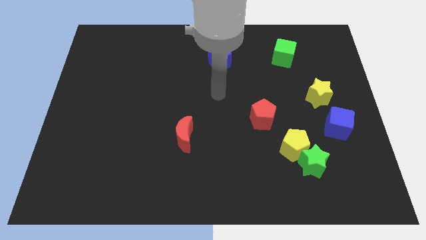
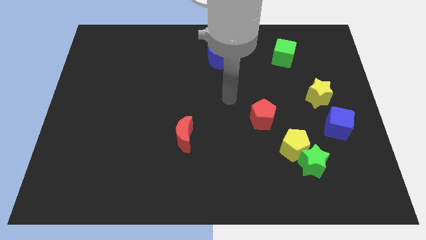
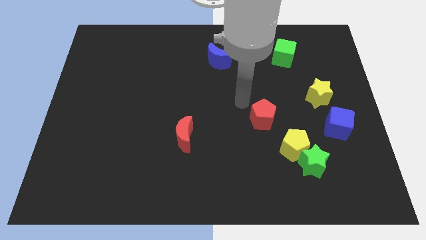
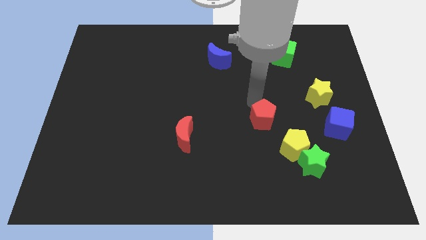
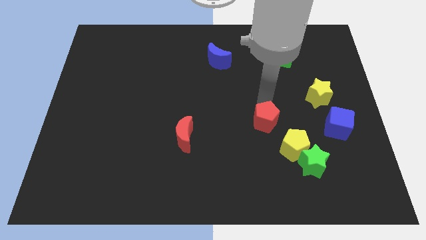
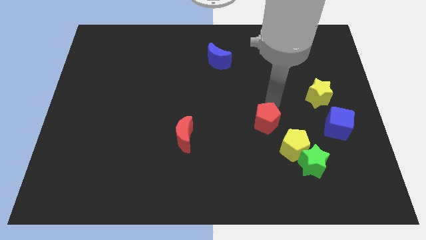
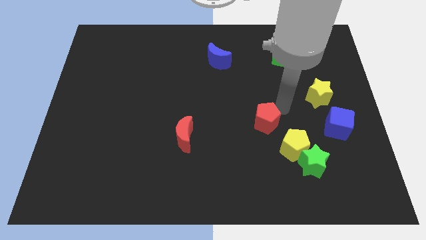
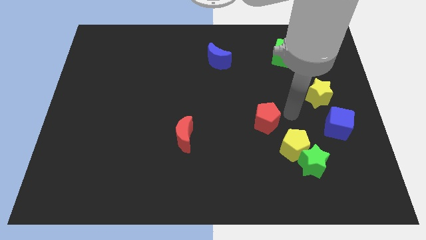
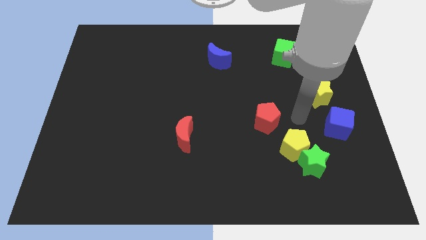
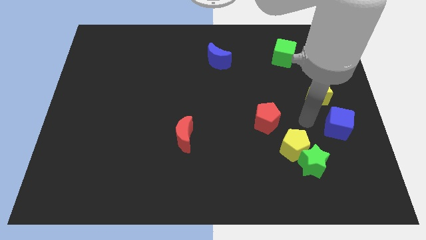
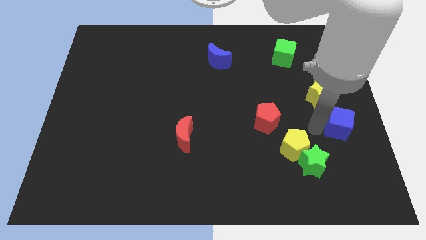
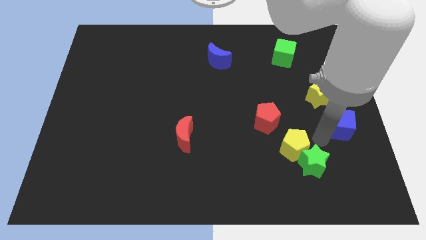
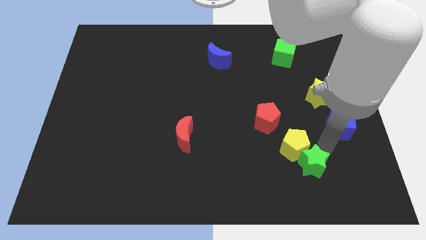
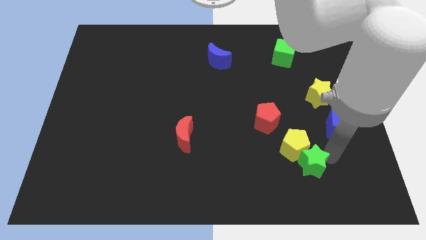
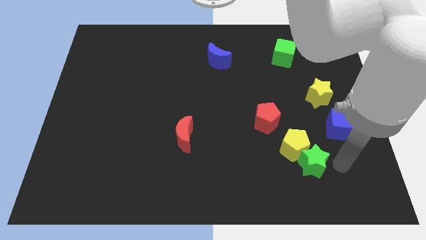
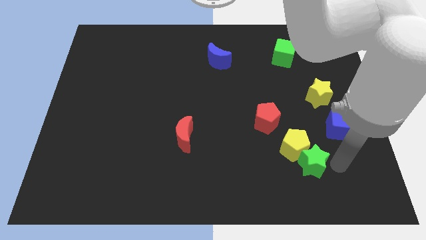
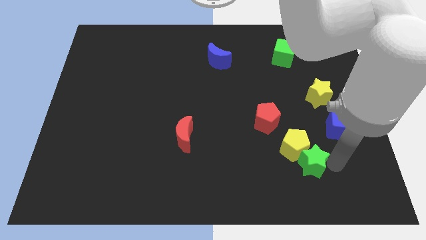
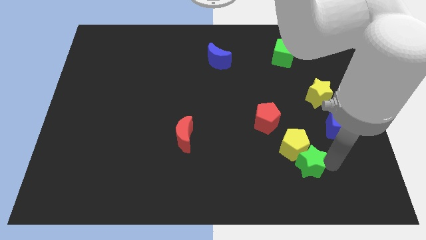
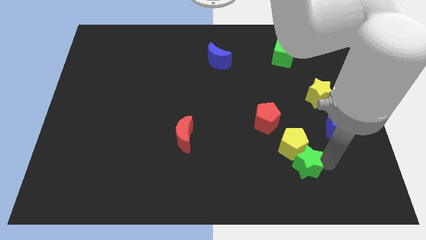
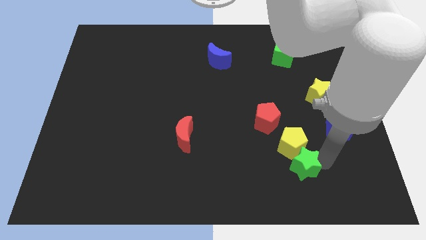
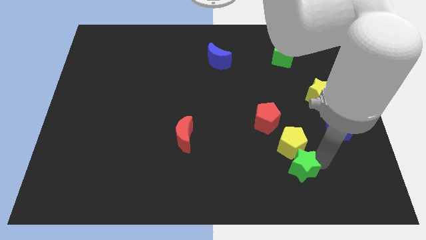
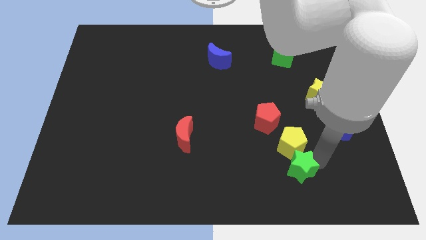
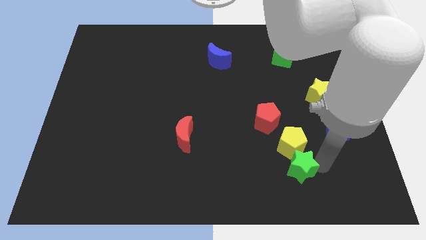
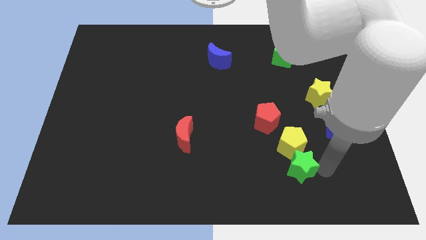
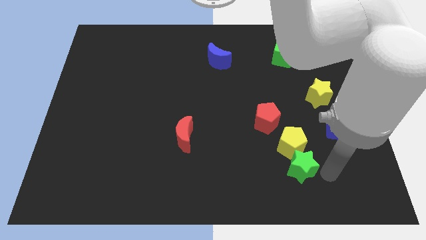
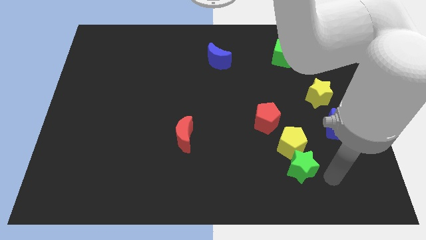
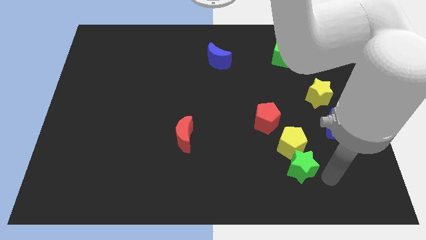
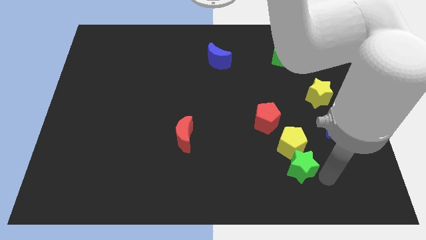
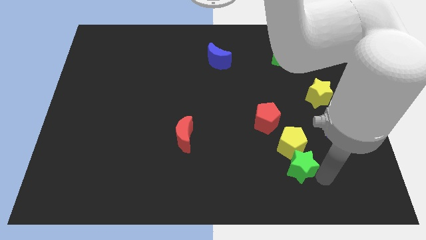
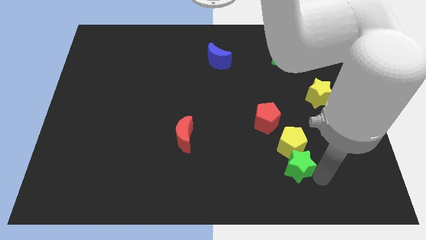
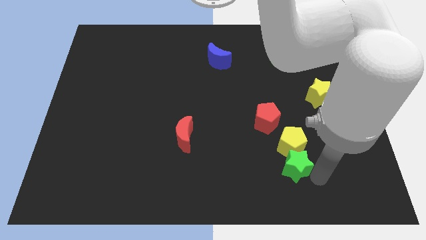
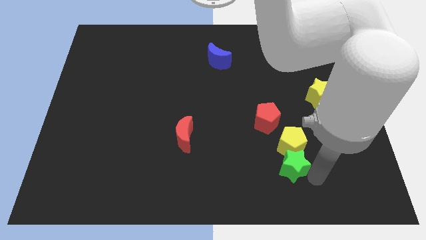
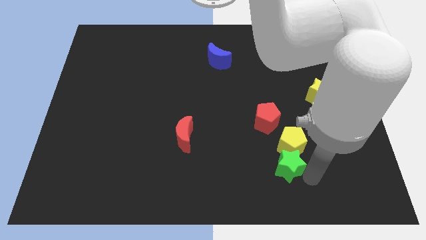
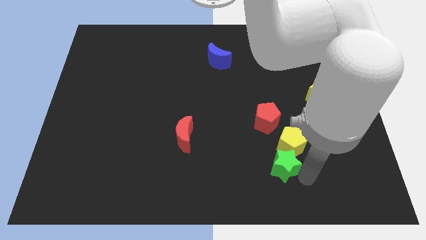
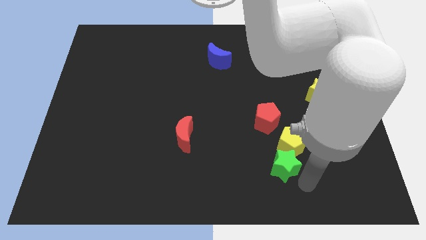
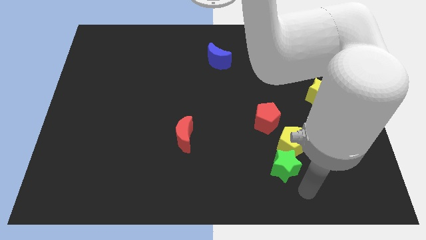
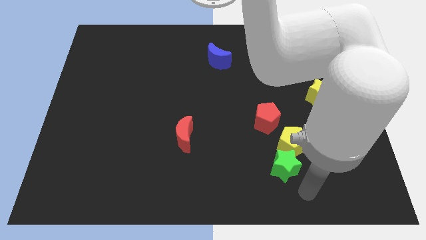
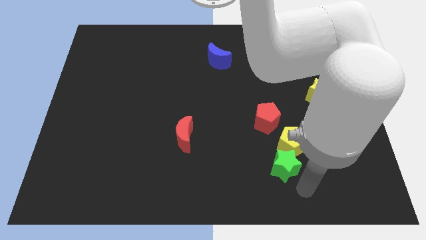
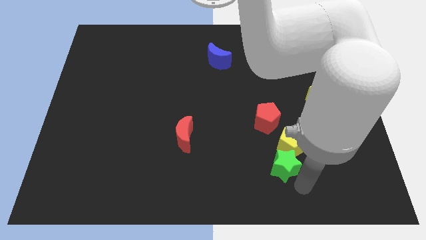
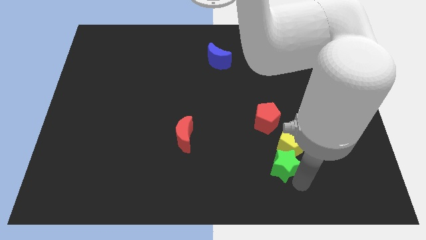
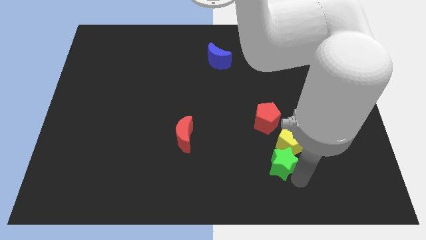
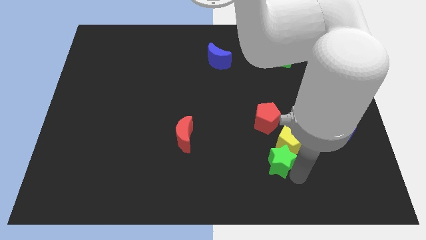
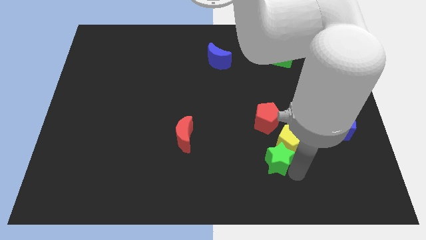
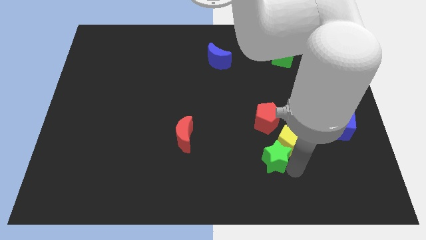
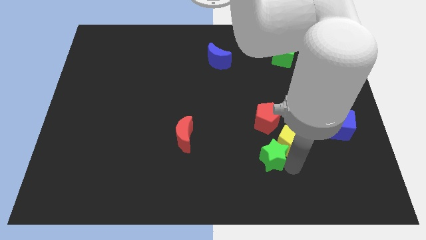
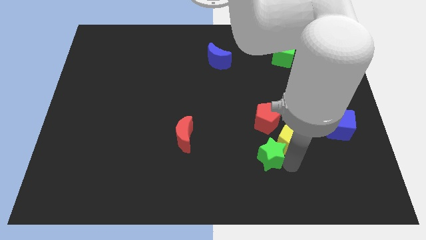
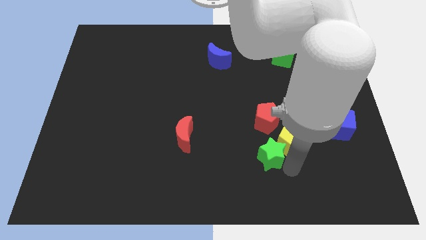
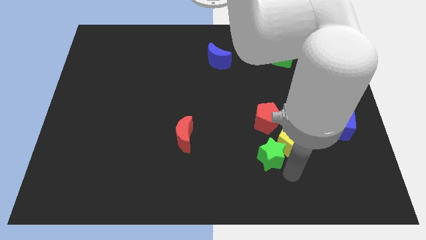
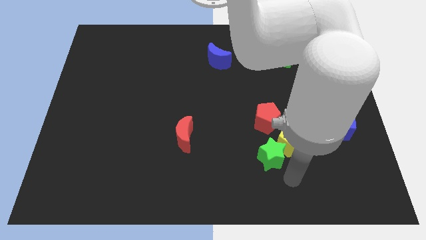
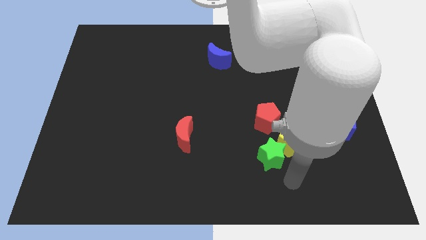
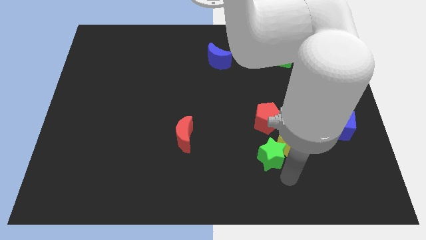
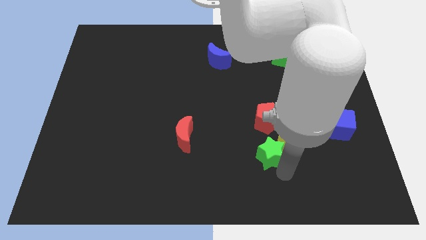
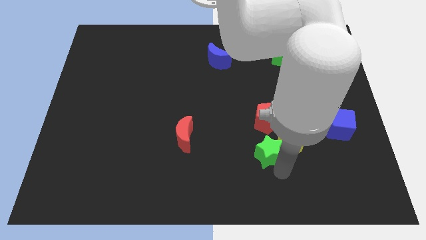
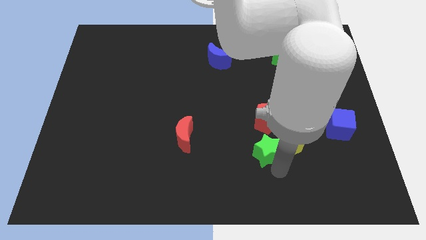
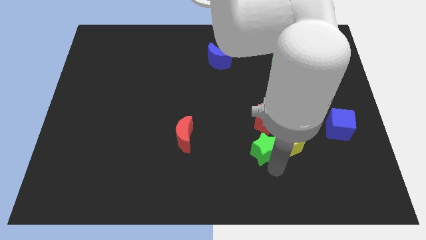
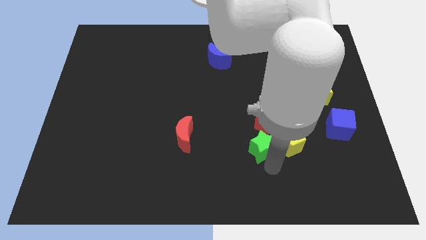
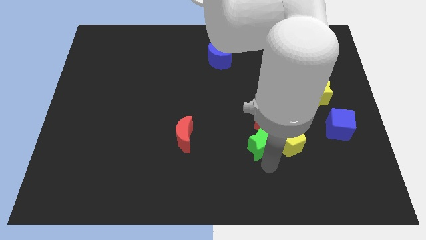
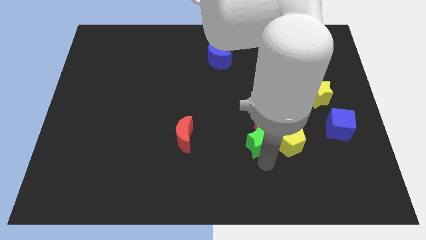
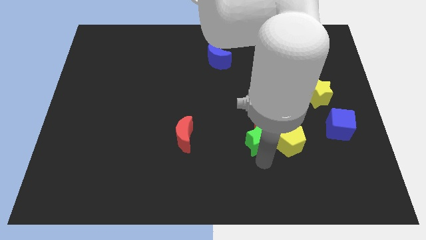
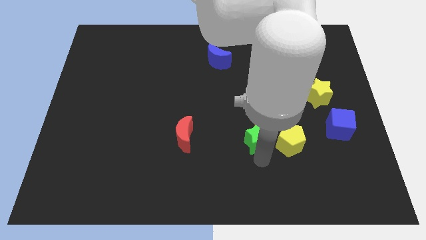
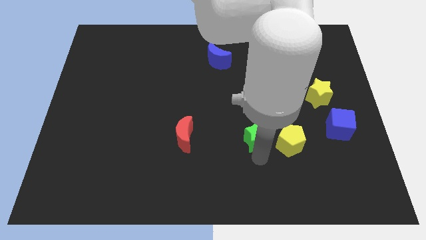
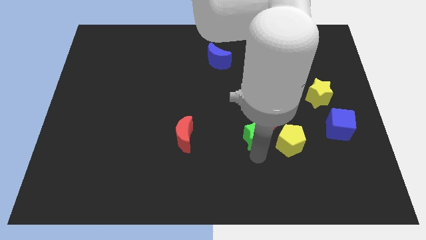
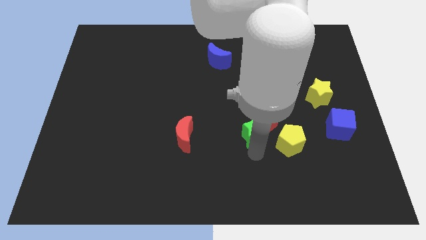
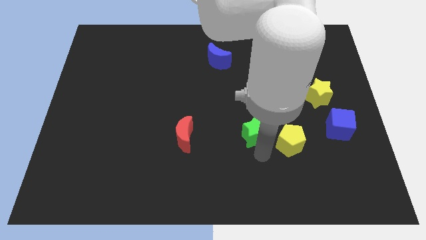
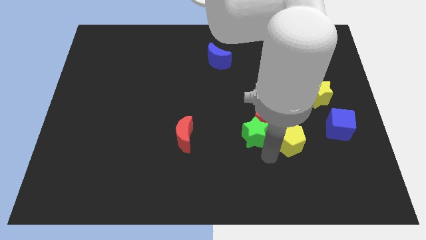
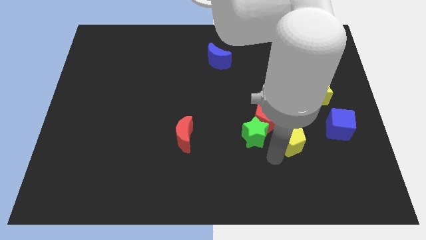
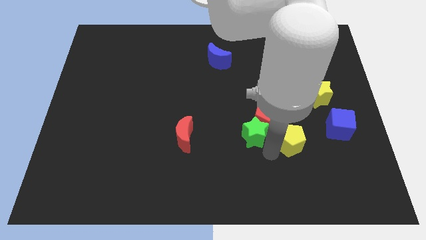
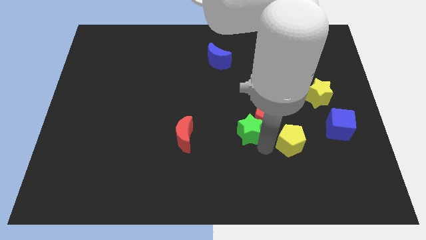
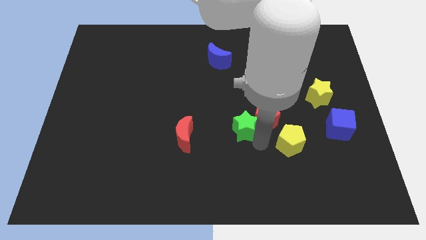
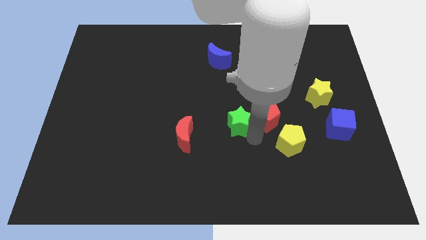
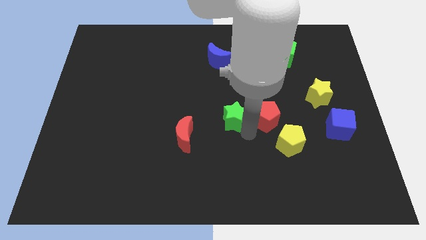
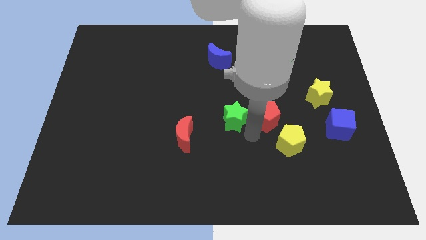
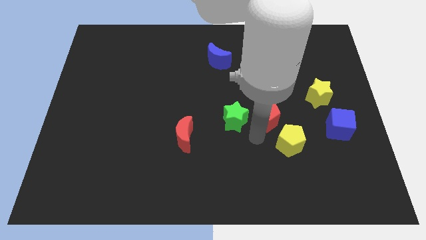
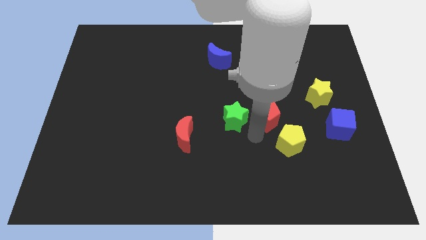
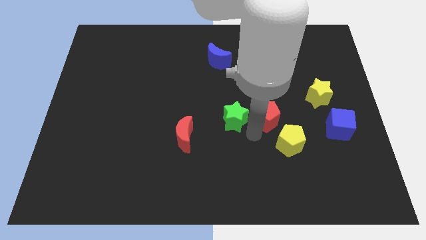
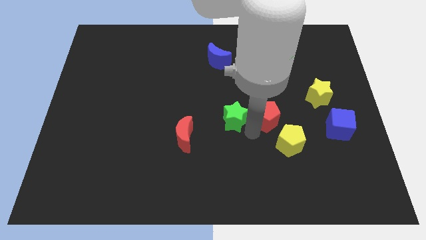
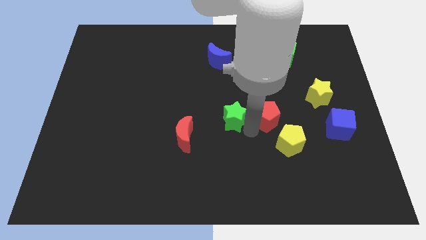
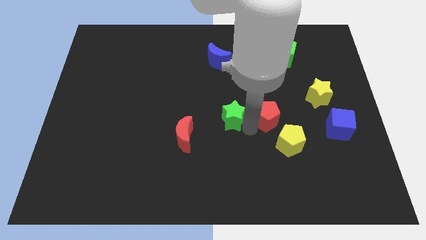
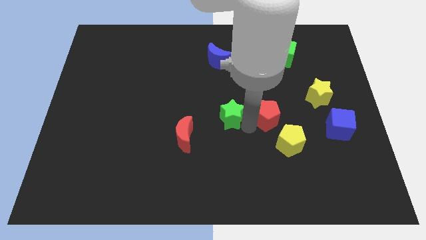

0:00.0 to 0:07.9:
push the green star diagonally up and to the left

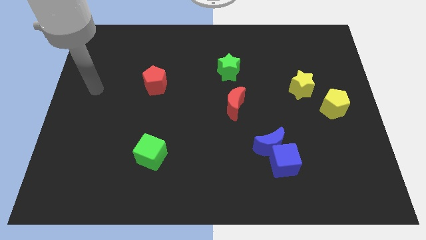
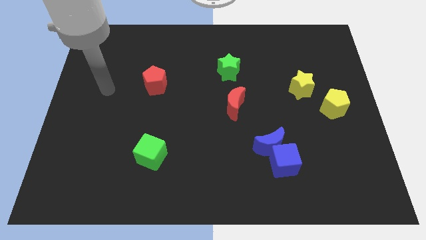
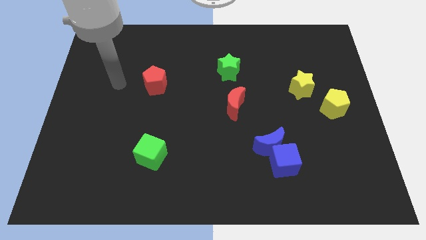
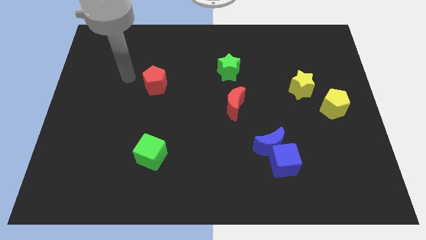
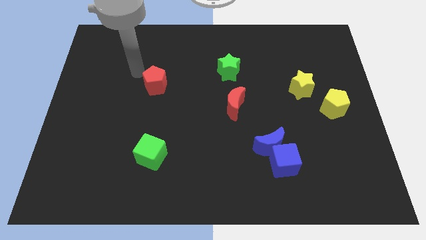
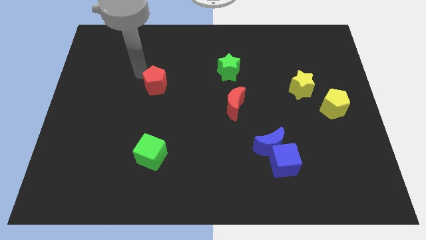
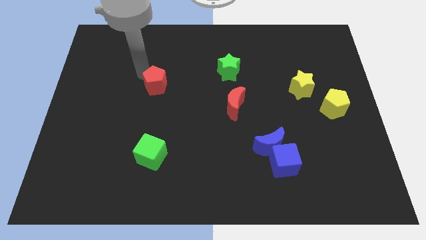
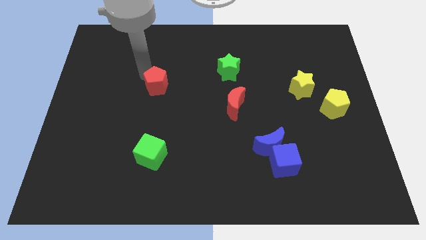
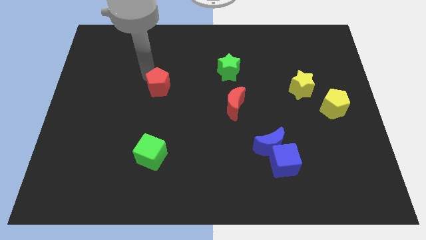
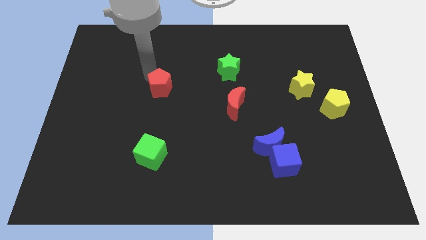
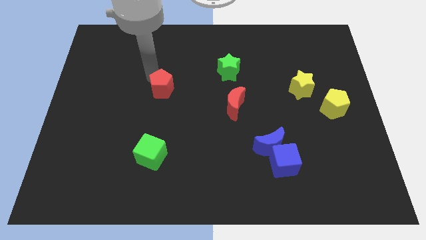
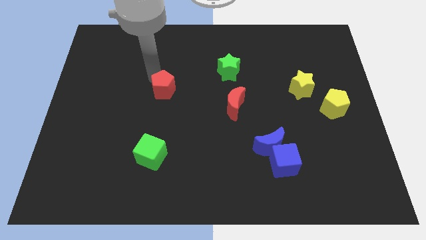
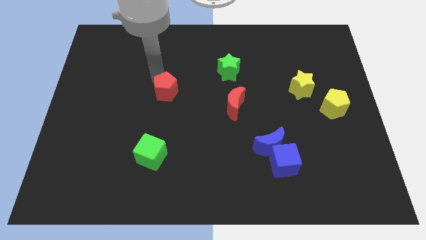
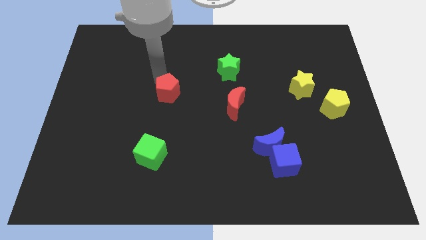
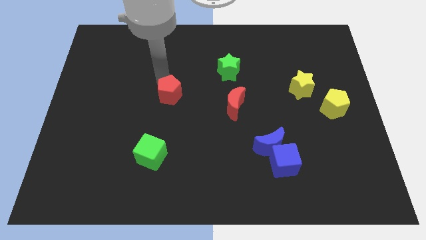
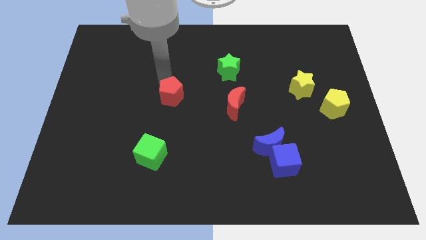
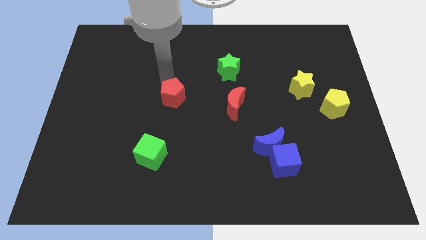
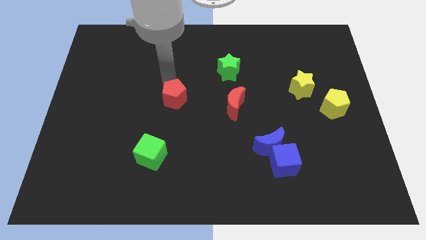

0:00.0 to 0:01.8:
slightly push the red pentagon down and to the right diagonally
